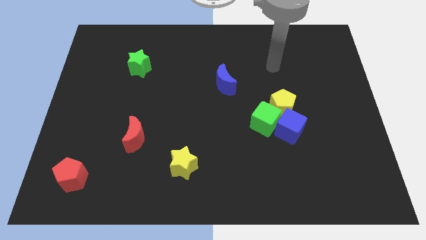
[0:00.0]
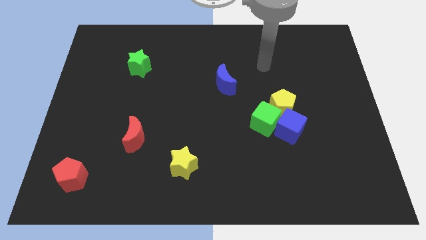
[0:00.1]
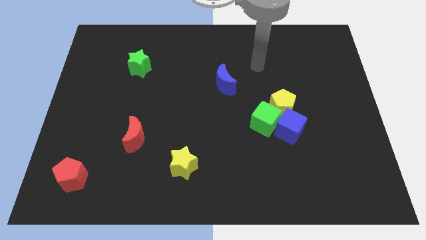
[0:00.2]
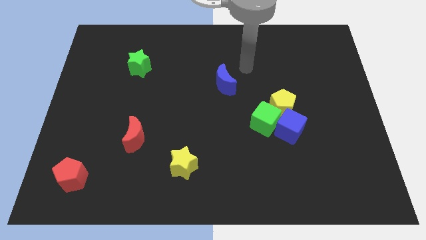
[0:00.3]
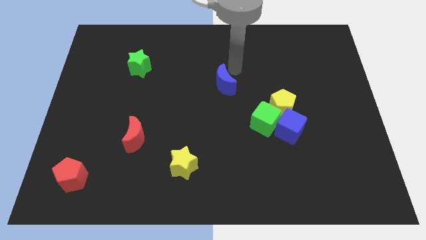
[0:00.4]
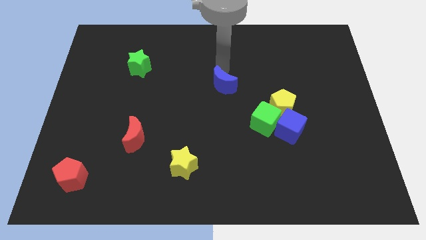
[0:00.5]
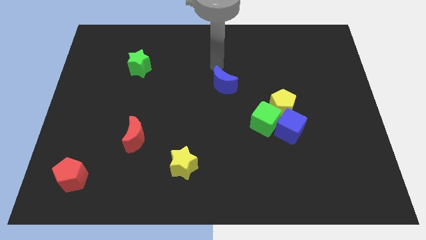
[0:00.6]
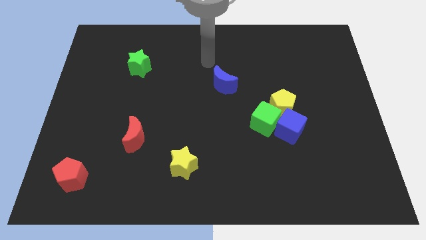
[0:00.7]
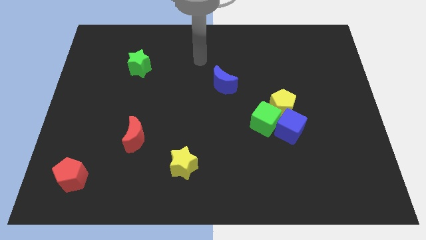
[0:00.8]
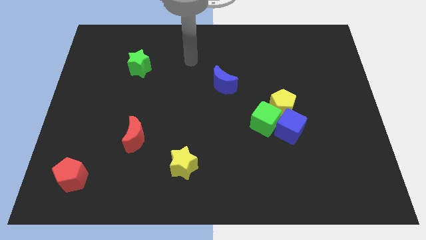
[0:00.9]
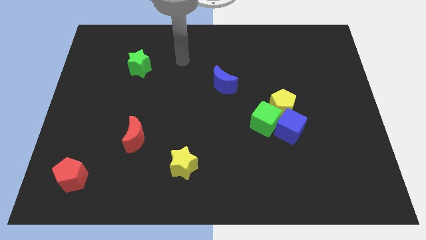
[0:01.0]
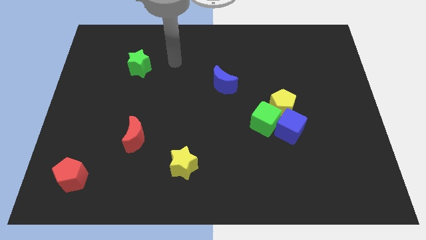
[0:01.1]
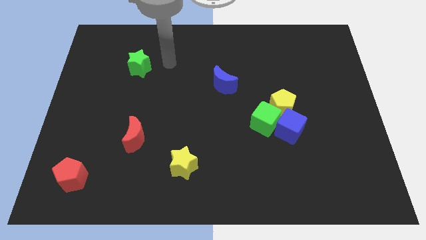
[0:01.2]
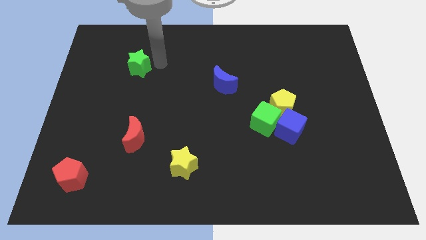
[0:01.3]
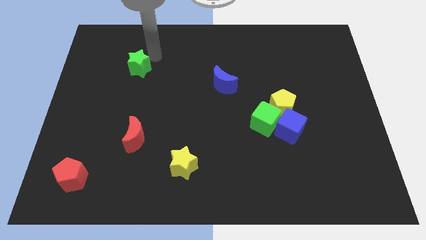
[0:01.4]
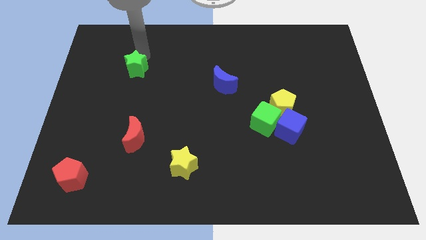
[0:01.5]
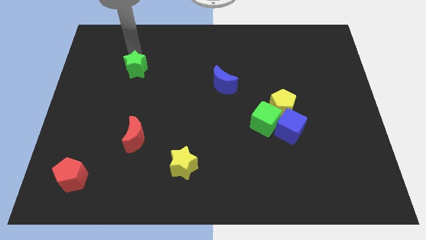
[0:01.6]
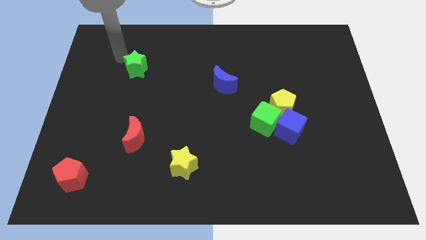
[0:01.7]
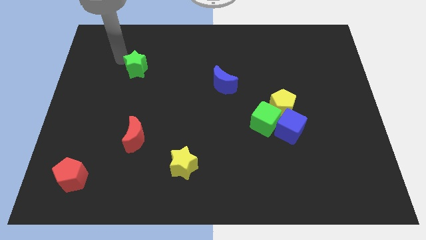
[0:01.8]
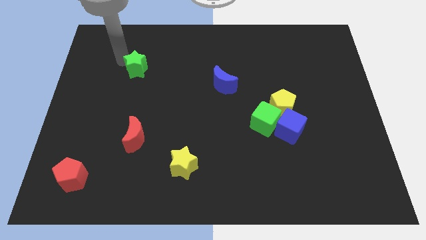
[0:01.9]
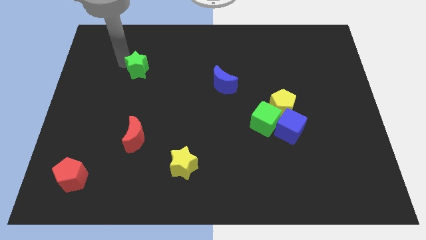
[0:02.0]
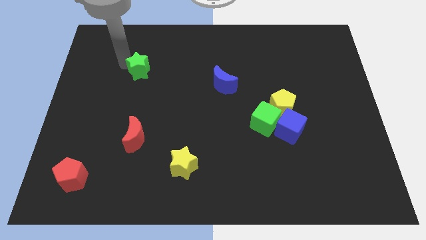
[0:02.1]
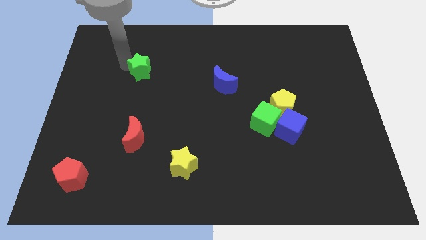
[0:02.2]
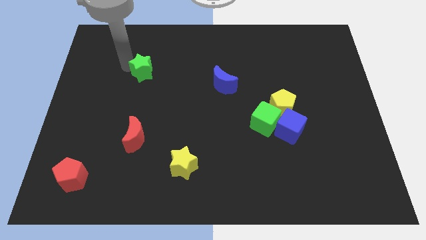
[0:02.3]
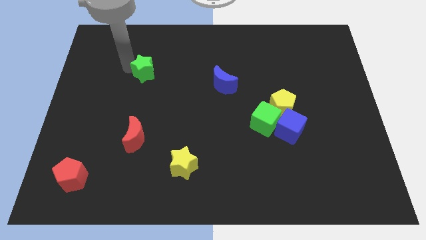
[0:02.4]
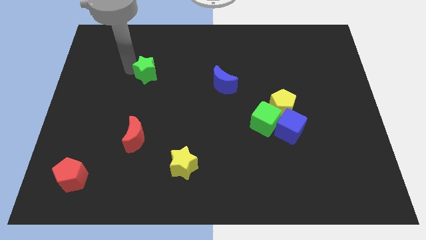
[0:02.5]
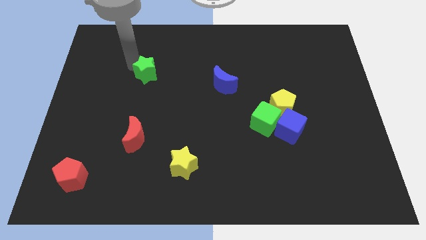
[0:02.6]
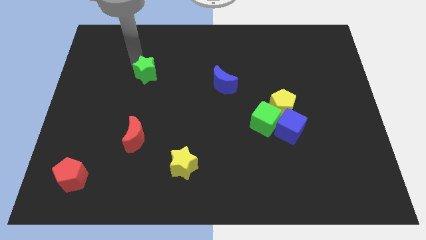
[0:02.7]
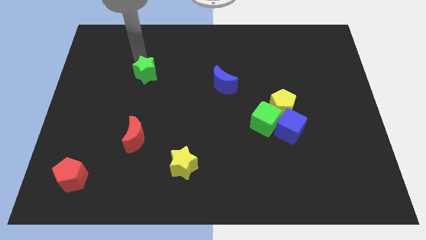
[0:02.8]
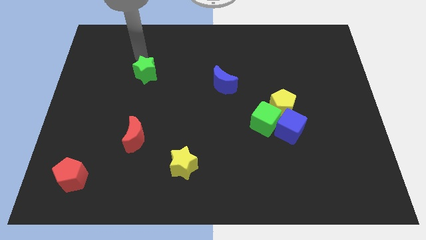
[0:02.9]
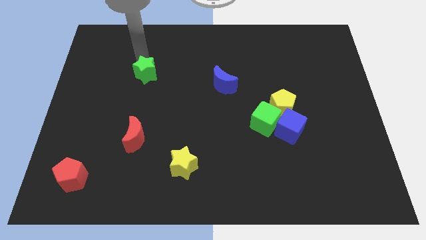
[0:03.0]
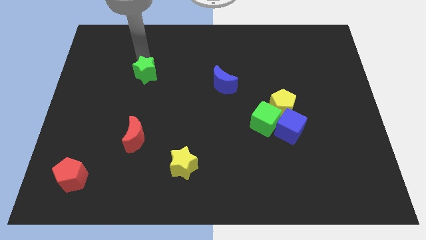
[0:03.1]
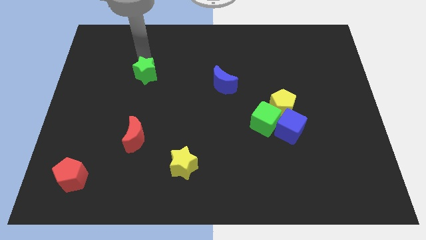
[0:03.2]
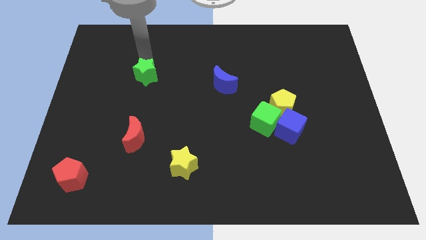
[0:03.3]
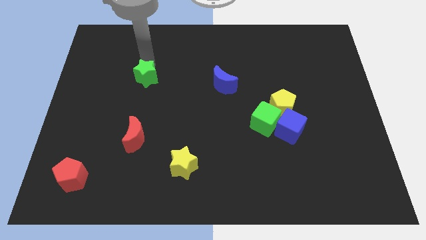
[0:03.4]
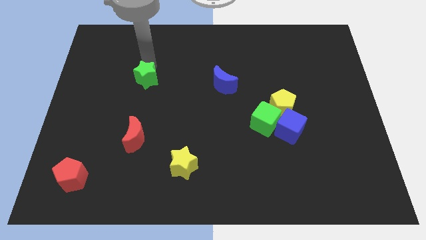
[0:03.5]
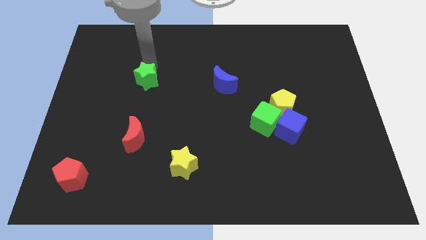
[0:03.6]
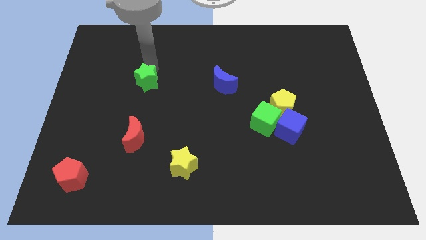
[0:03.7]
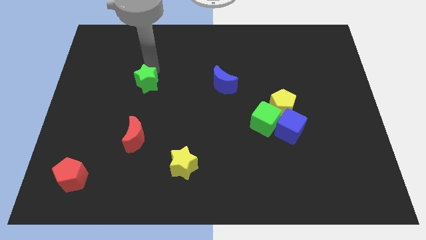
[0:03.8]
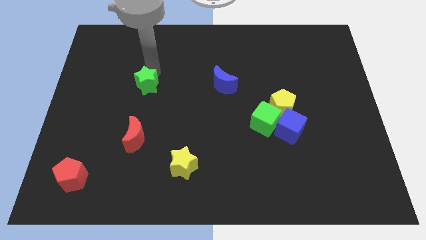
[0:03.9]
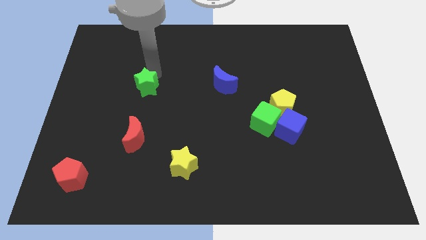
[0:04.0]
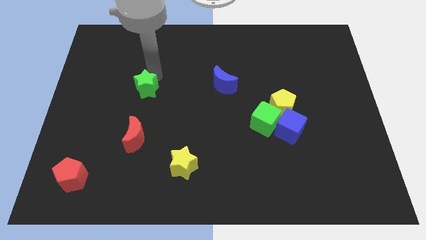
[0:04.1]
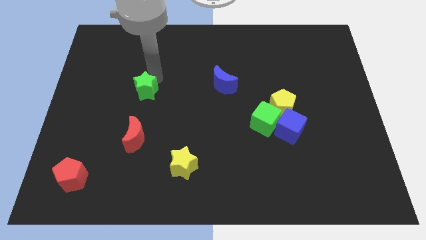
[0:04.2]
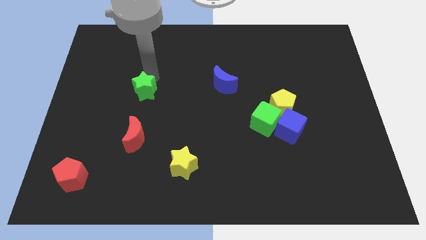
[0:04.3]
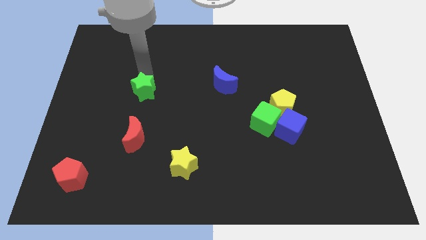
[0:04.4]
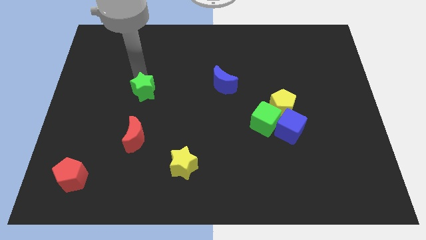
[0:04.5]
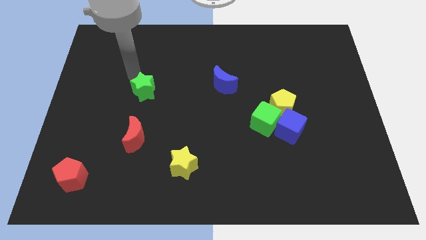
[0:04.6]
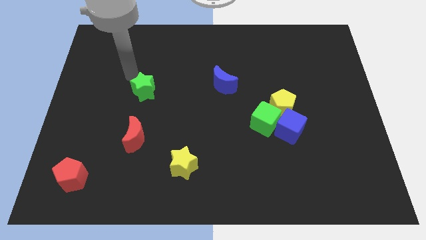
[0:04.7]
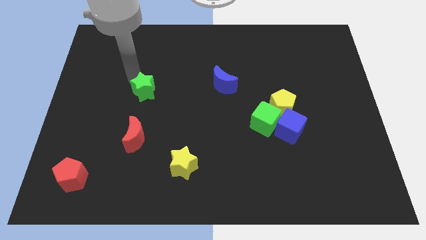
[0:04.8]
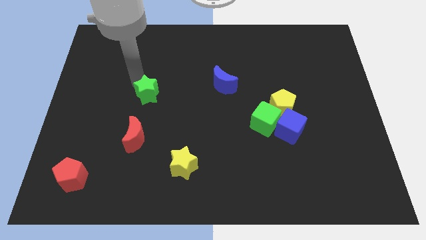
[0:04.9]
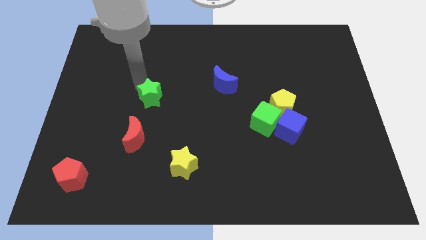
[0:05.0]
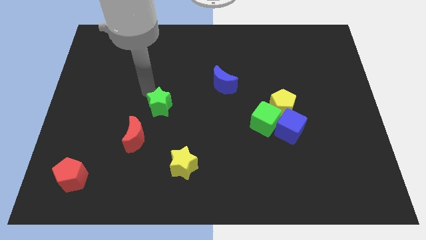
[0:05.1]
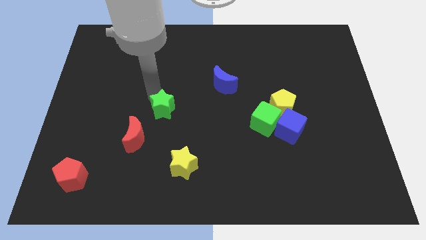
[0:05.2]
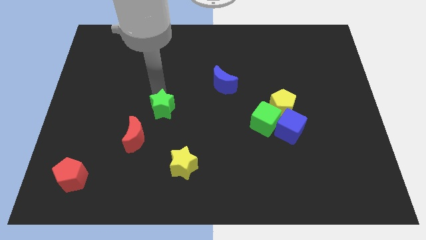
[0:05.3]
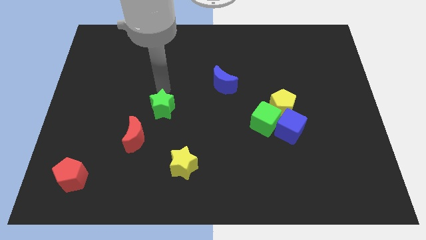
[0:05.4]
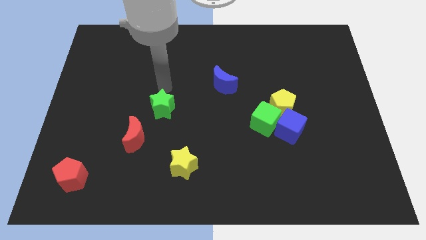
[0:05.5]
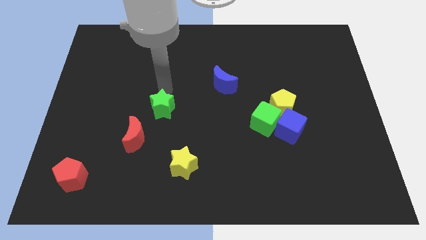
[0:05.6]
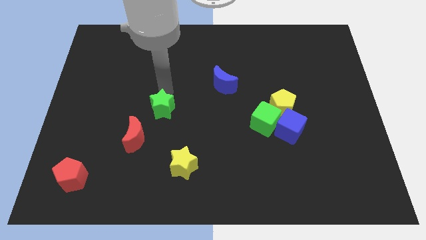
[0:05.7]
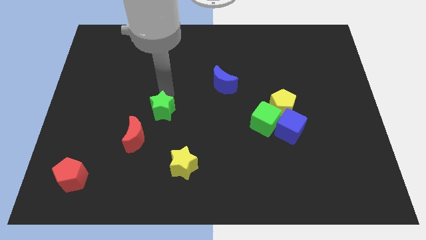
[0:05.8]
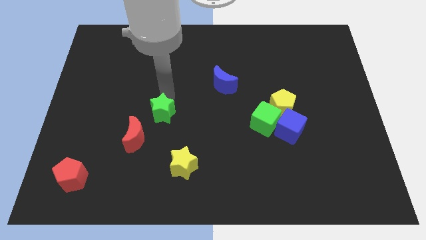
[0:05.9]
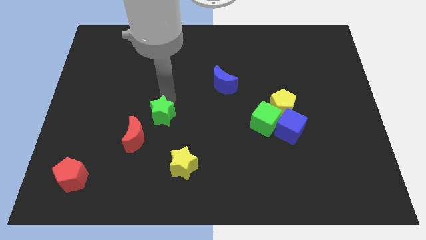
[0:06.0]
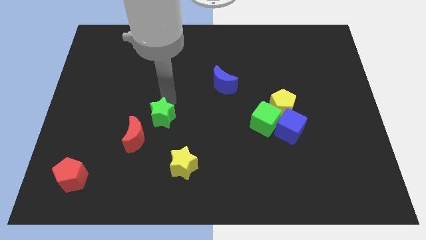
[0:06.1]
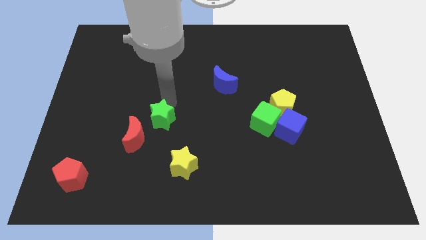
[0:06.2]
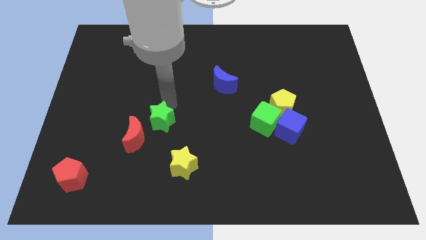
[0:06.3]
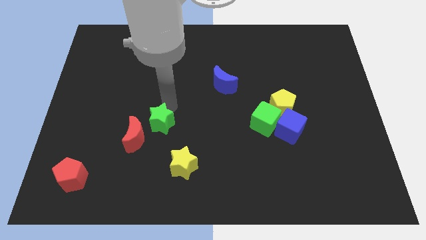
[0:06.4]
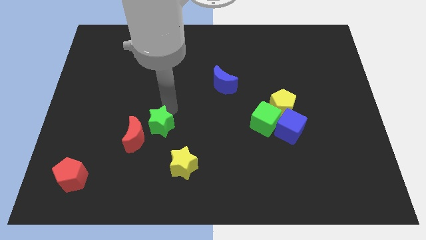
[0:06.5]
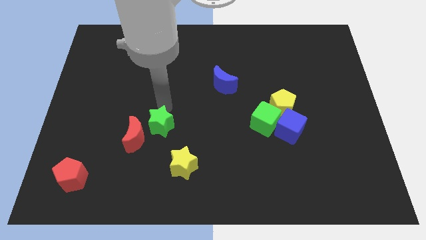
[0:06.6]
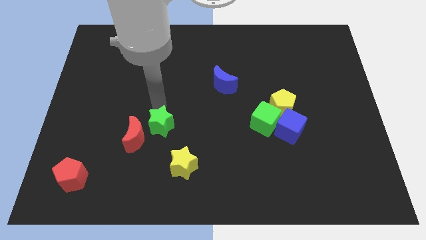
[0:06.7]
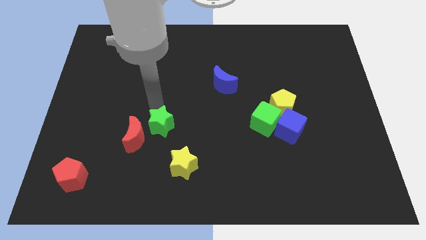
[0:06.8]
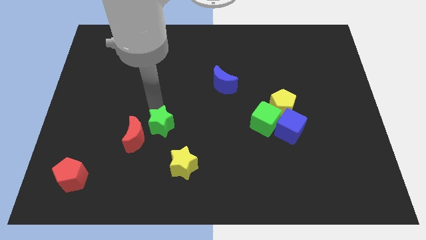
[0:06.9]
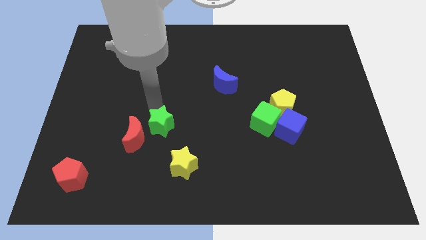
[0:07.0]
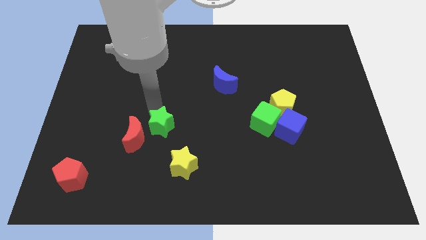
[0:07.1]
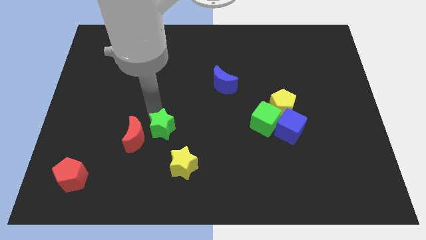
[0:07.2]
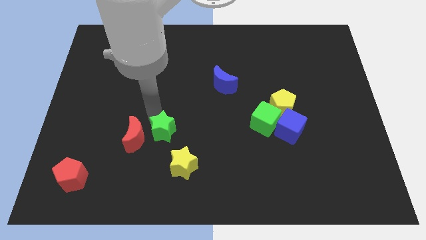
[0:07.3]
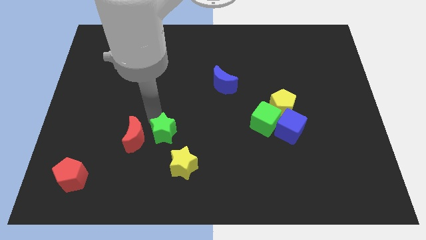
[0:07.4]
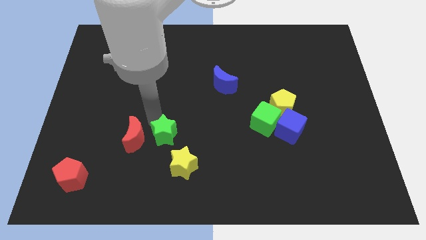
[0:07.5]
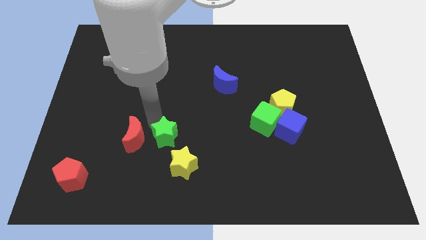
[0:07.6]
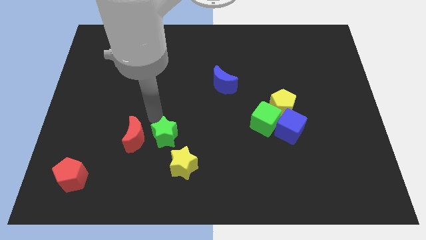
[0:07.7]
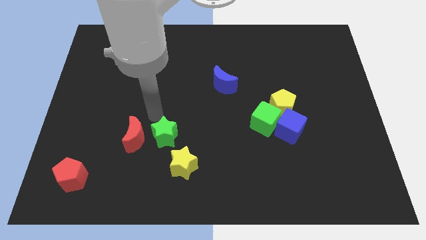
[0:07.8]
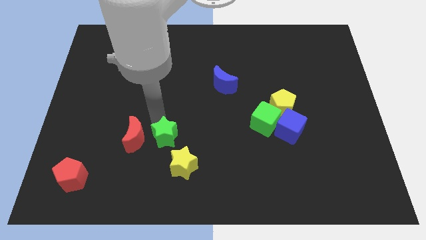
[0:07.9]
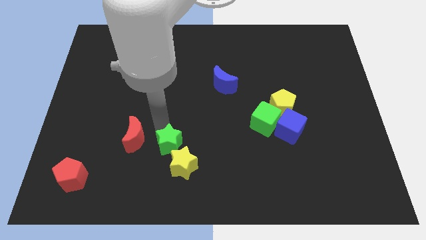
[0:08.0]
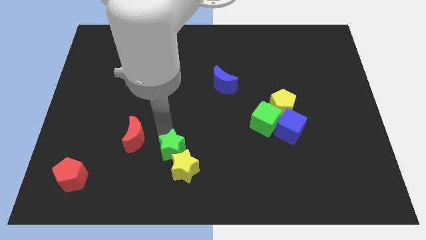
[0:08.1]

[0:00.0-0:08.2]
slide the green star next to the yellow star

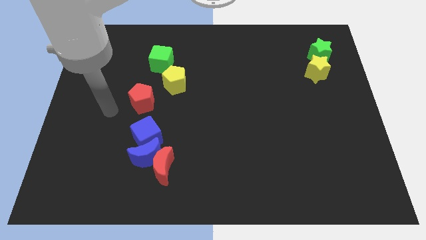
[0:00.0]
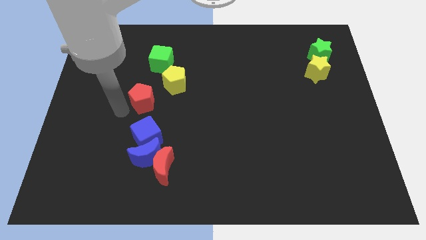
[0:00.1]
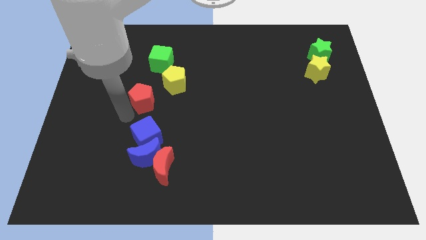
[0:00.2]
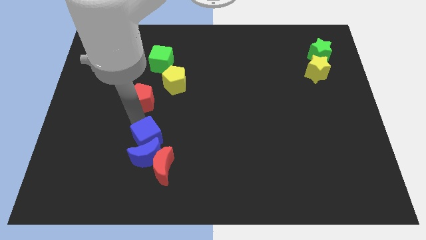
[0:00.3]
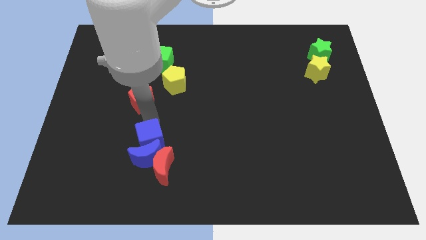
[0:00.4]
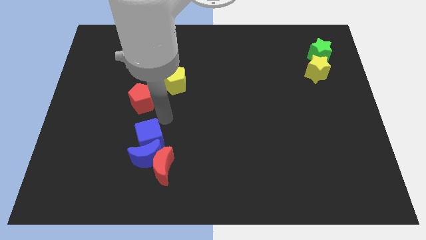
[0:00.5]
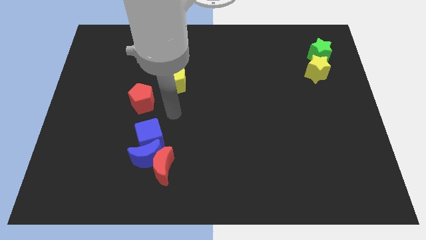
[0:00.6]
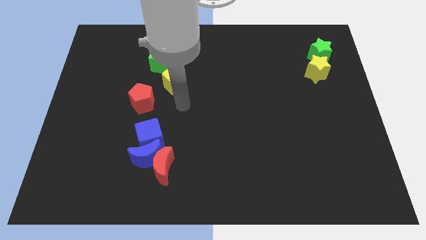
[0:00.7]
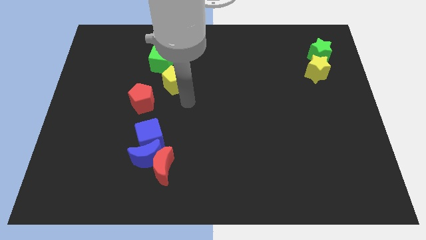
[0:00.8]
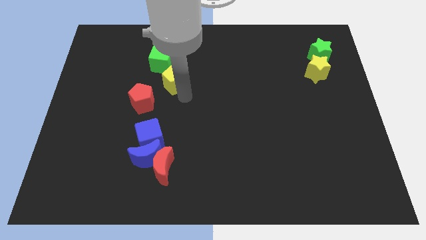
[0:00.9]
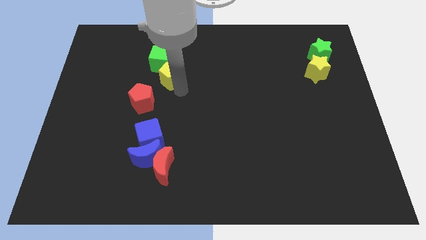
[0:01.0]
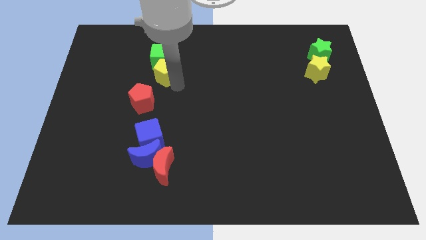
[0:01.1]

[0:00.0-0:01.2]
put the yellow pentagon towards the green cube
